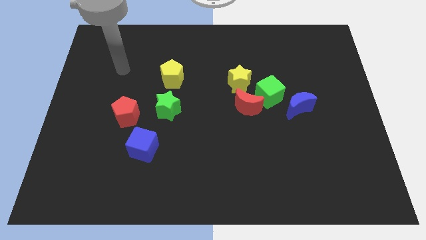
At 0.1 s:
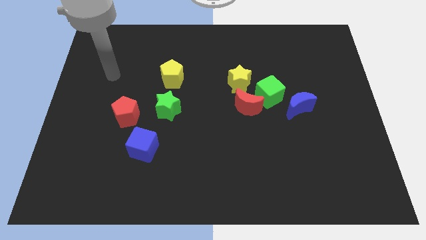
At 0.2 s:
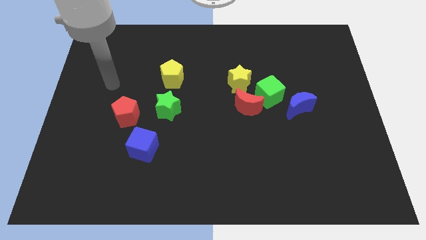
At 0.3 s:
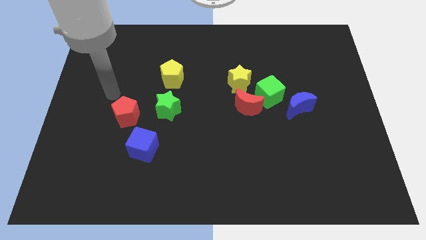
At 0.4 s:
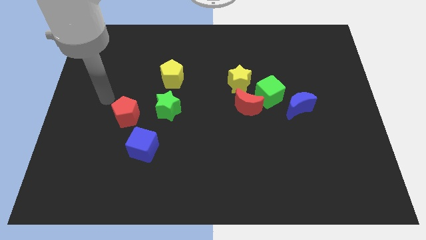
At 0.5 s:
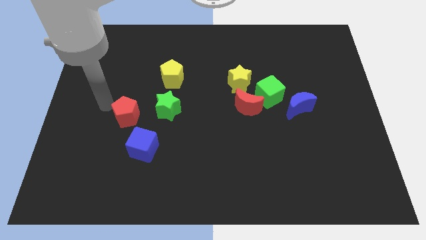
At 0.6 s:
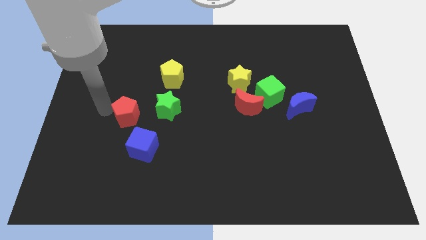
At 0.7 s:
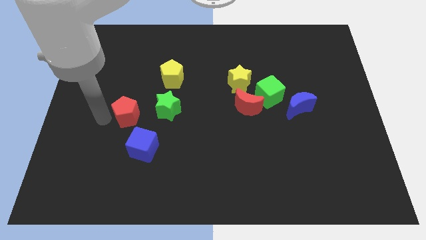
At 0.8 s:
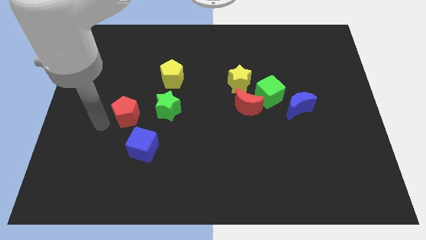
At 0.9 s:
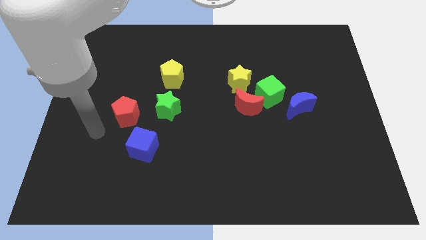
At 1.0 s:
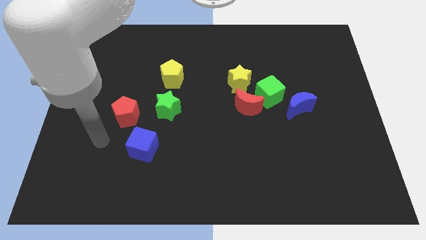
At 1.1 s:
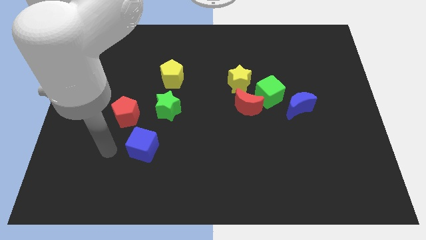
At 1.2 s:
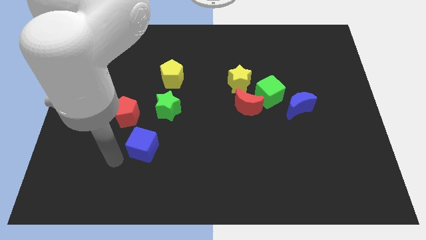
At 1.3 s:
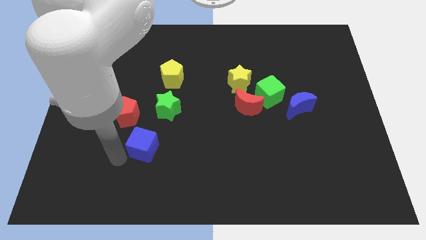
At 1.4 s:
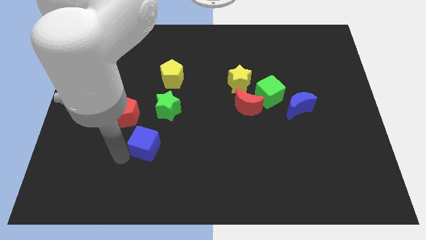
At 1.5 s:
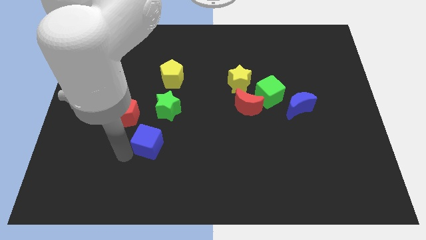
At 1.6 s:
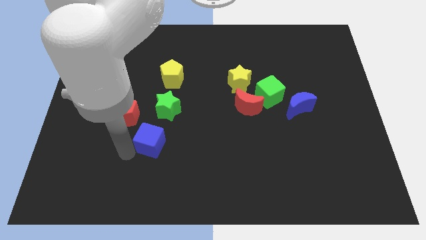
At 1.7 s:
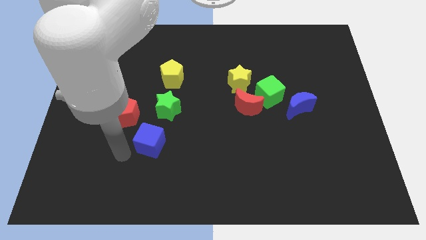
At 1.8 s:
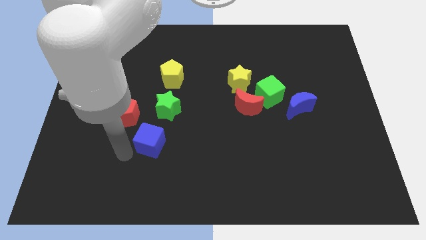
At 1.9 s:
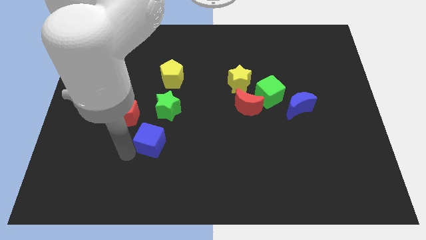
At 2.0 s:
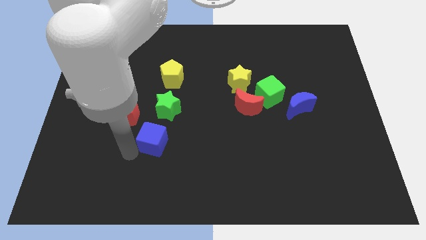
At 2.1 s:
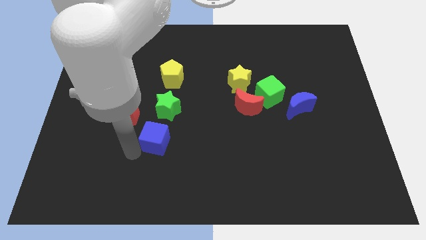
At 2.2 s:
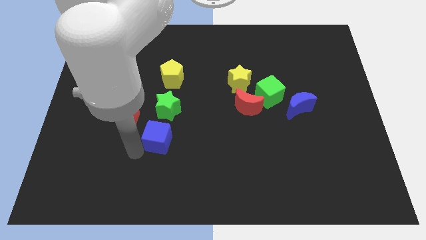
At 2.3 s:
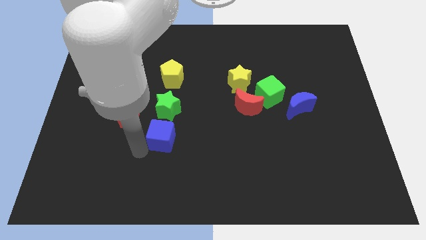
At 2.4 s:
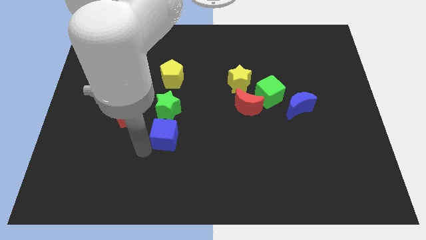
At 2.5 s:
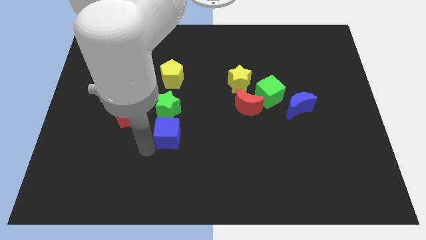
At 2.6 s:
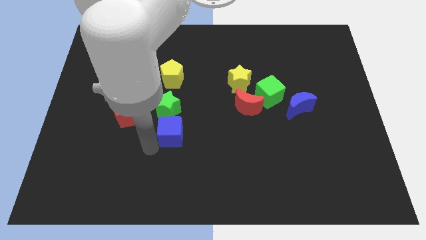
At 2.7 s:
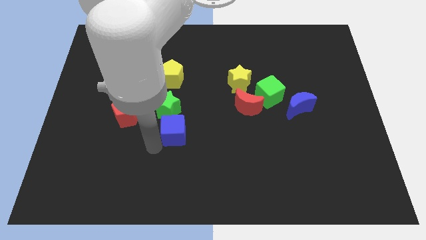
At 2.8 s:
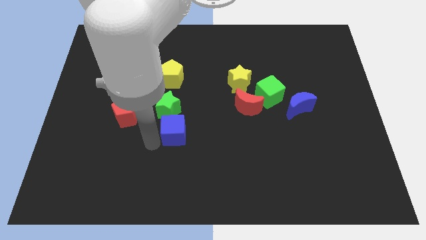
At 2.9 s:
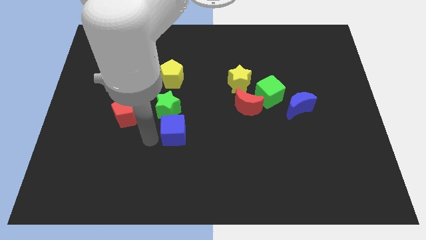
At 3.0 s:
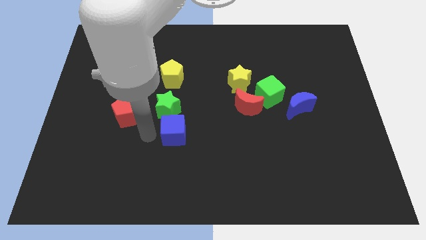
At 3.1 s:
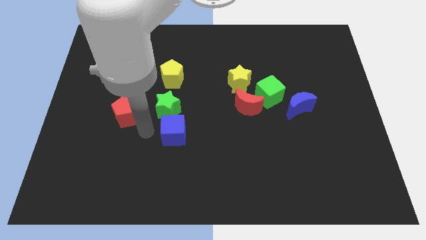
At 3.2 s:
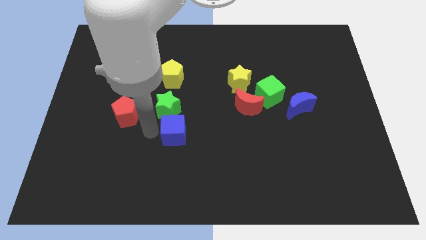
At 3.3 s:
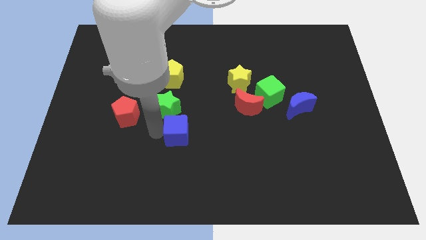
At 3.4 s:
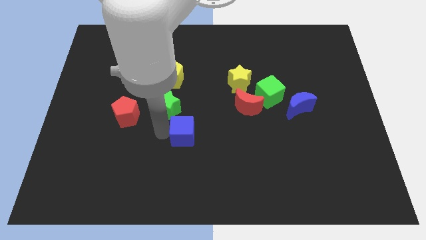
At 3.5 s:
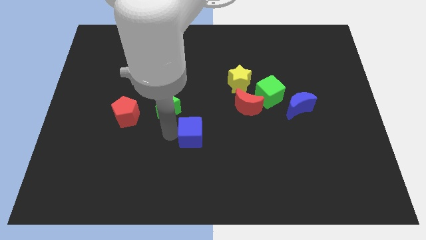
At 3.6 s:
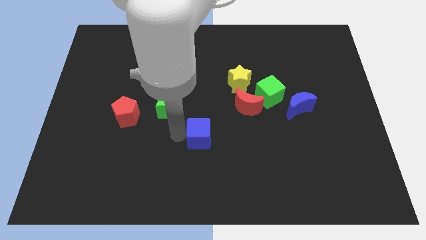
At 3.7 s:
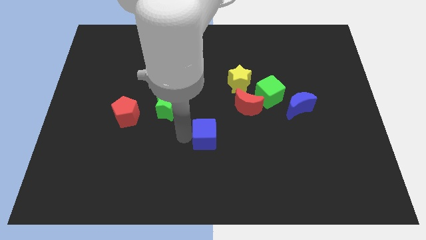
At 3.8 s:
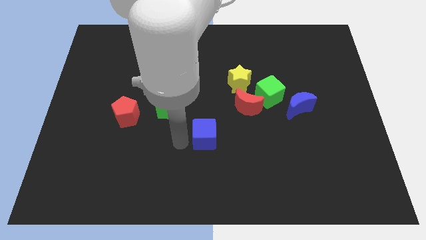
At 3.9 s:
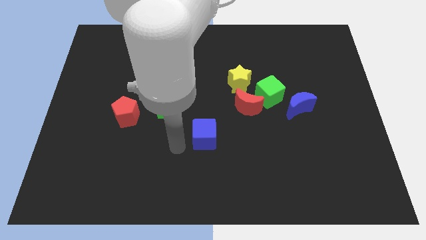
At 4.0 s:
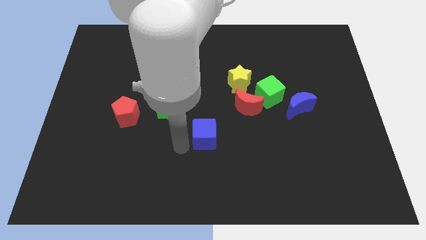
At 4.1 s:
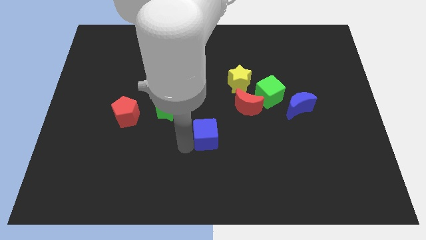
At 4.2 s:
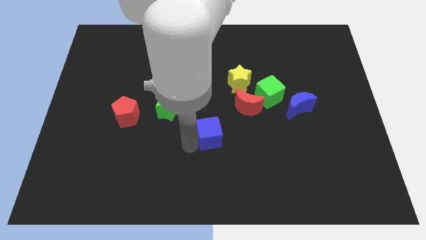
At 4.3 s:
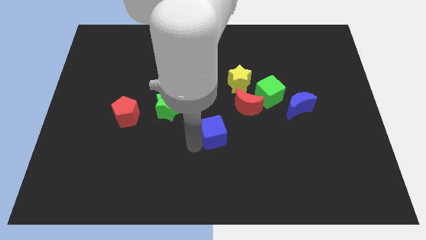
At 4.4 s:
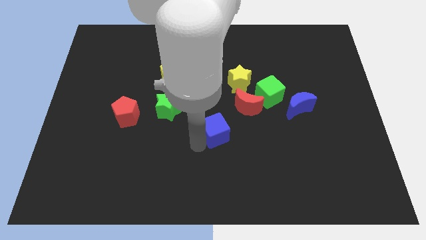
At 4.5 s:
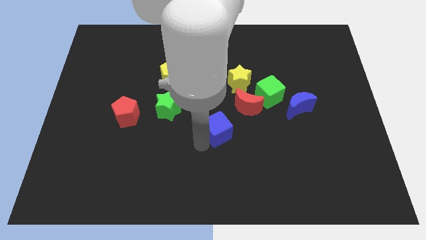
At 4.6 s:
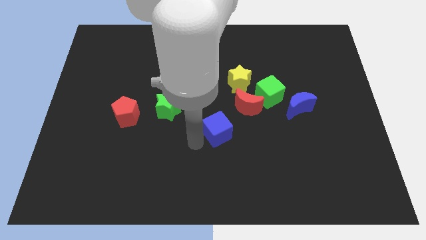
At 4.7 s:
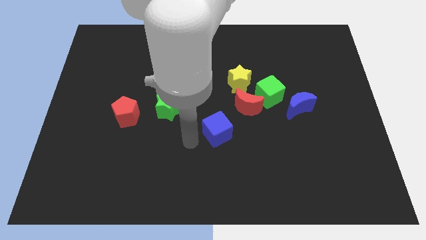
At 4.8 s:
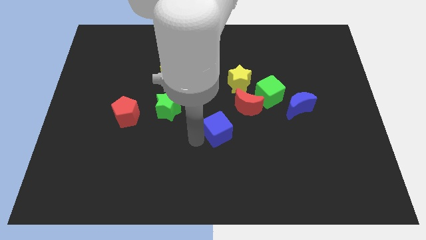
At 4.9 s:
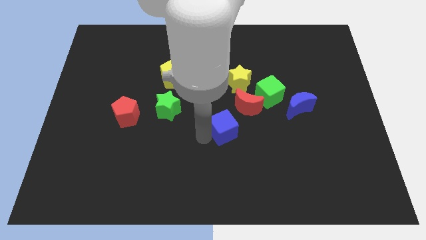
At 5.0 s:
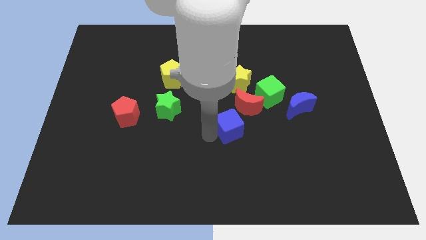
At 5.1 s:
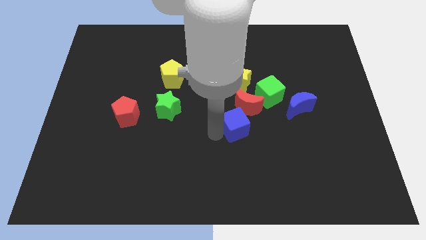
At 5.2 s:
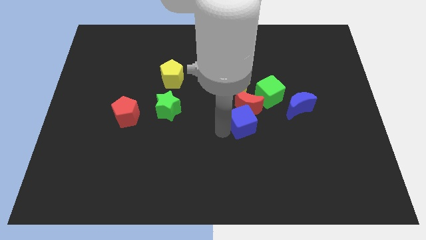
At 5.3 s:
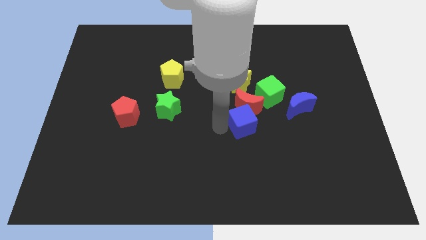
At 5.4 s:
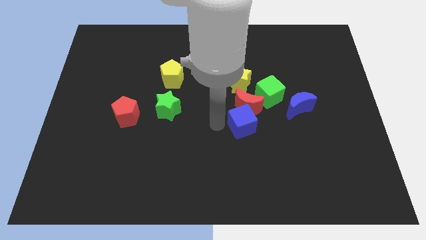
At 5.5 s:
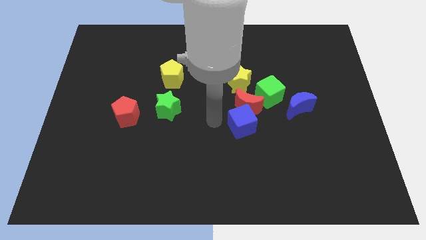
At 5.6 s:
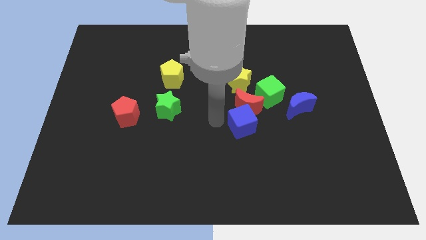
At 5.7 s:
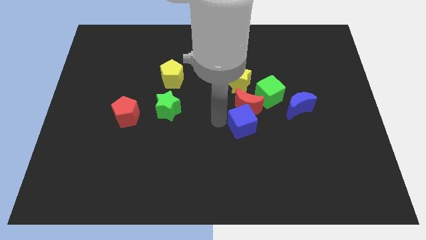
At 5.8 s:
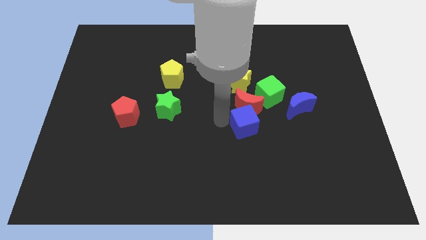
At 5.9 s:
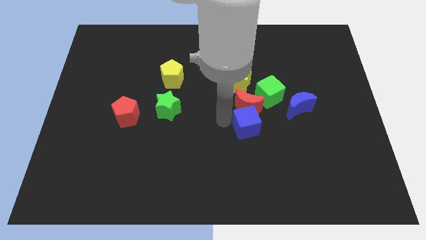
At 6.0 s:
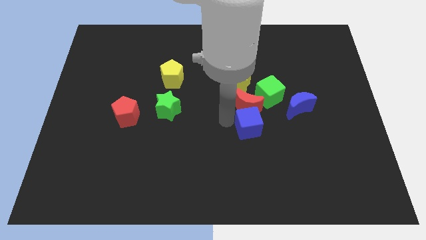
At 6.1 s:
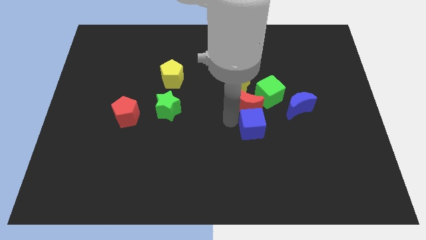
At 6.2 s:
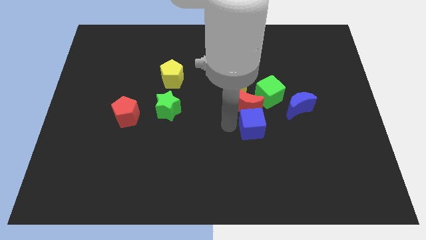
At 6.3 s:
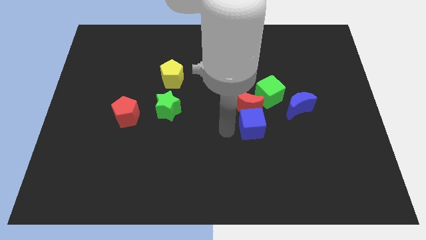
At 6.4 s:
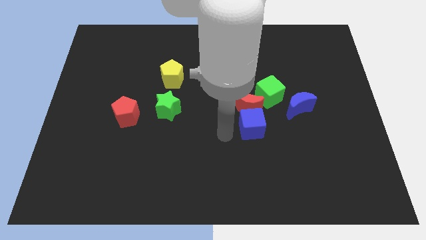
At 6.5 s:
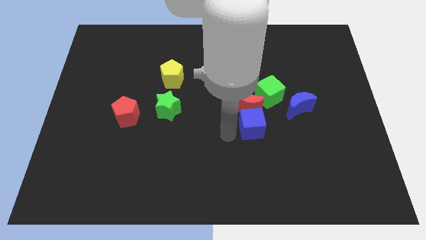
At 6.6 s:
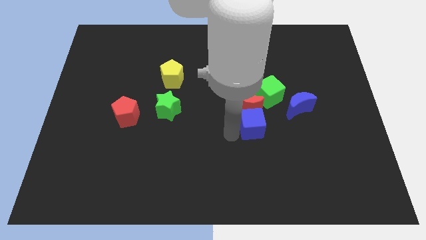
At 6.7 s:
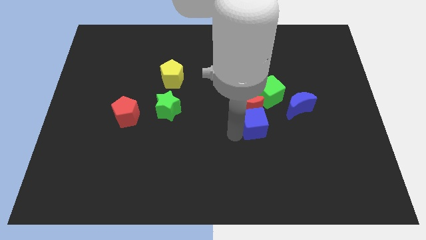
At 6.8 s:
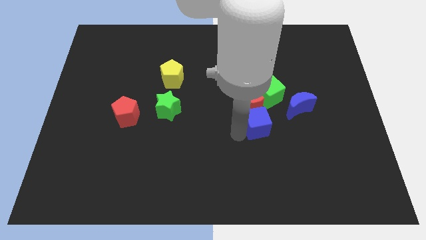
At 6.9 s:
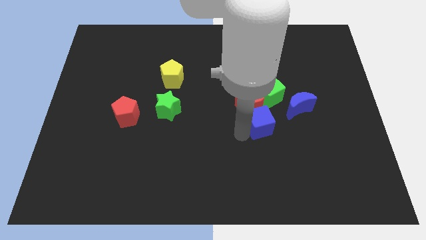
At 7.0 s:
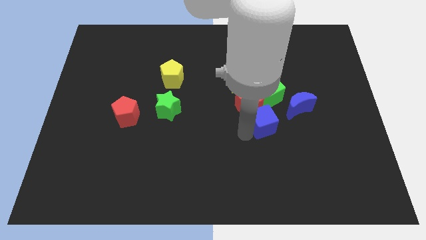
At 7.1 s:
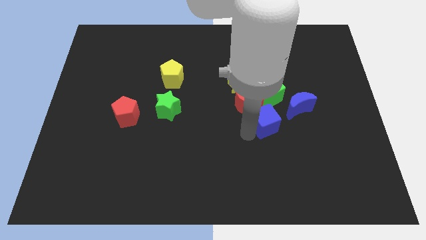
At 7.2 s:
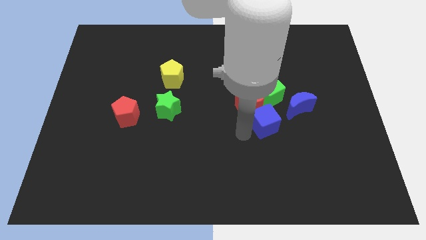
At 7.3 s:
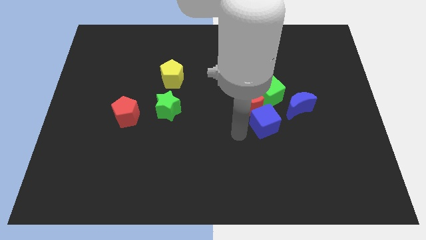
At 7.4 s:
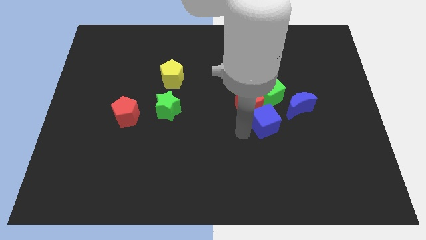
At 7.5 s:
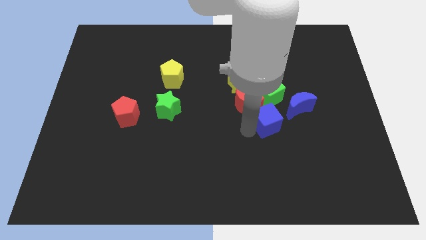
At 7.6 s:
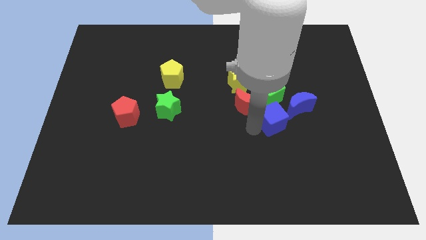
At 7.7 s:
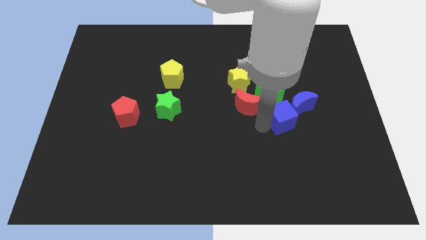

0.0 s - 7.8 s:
put the blue cube towards the blue moon

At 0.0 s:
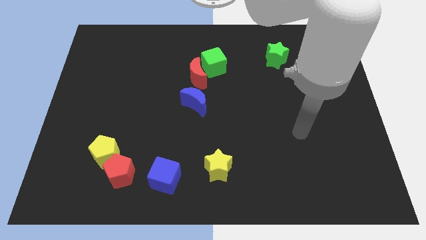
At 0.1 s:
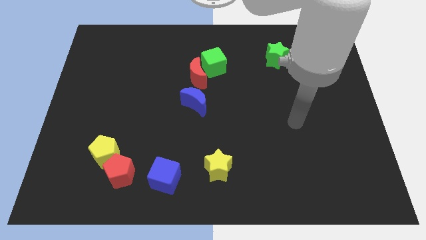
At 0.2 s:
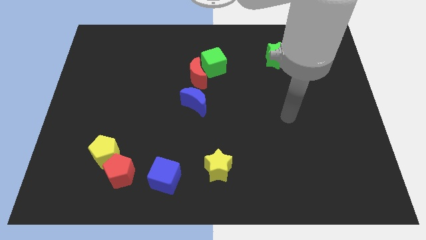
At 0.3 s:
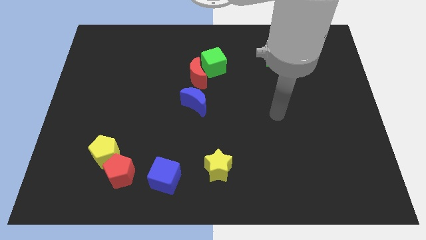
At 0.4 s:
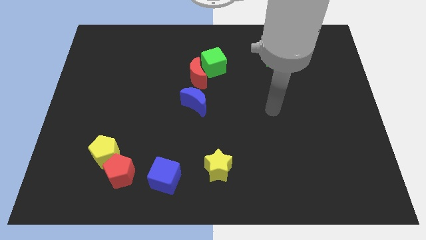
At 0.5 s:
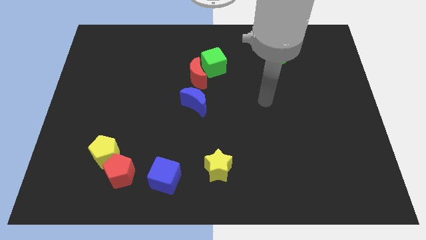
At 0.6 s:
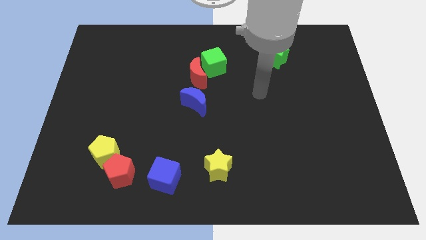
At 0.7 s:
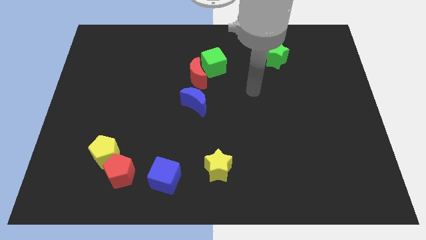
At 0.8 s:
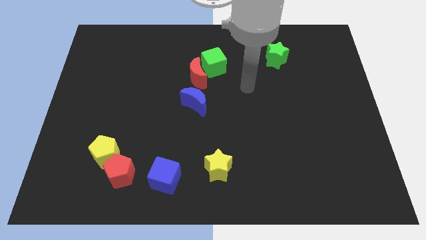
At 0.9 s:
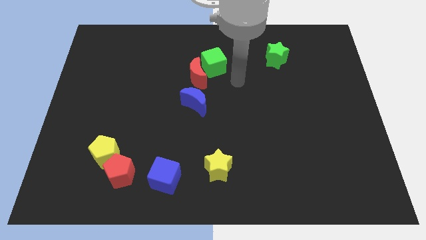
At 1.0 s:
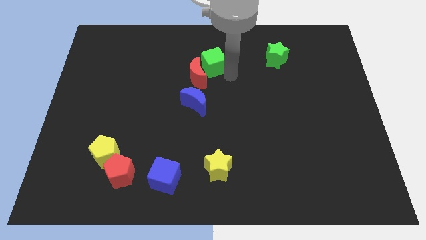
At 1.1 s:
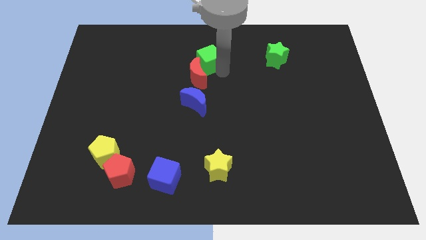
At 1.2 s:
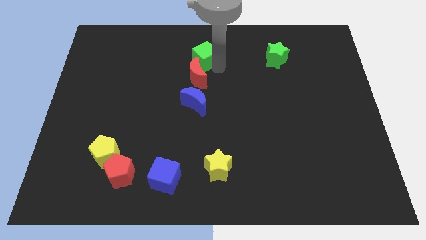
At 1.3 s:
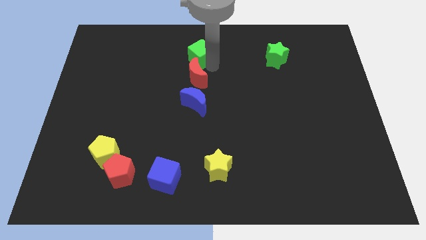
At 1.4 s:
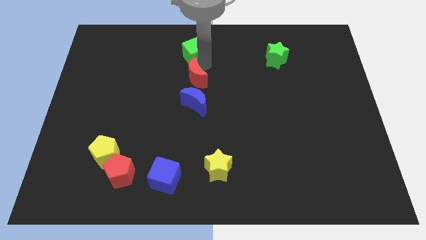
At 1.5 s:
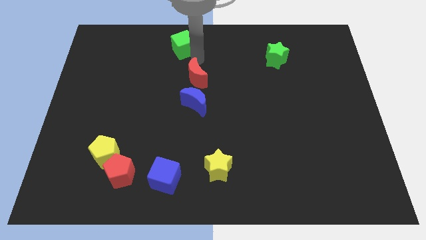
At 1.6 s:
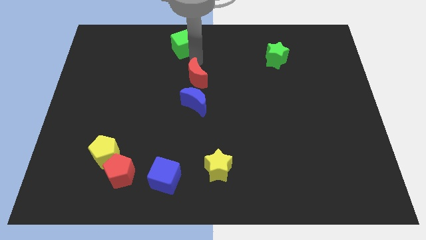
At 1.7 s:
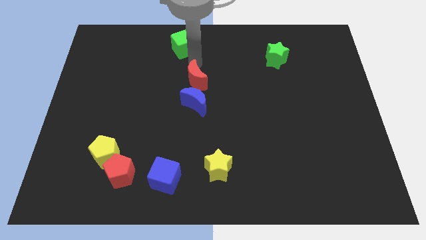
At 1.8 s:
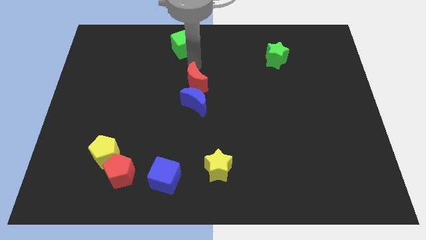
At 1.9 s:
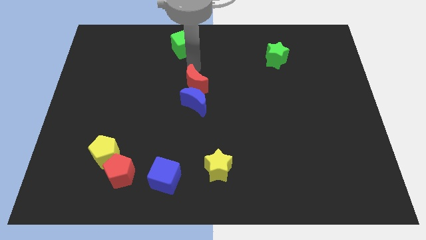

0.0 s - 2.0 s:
push the red moon towards the blue moon
